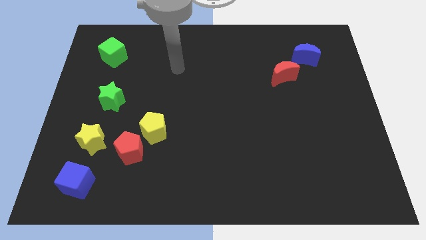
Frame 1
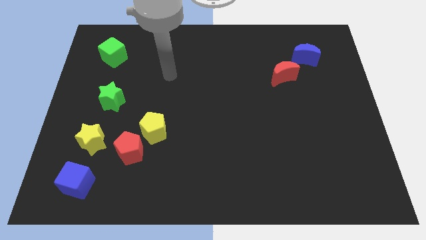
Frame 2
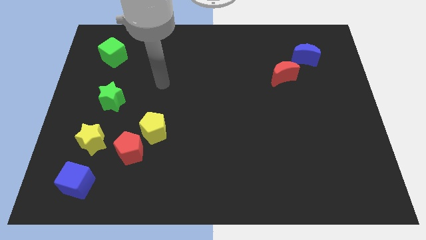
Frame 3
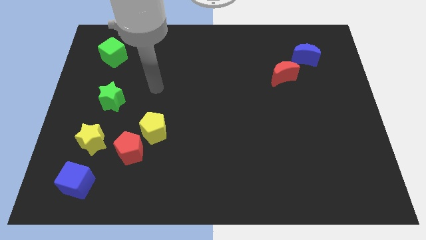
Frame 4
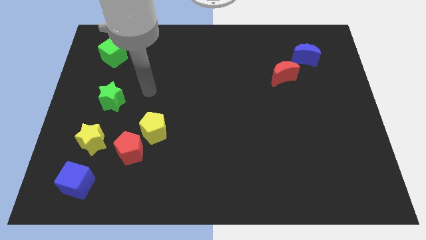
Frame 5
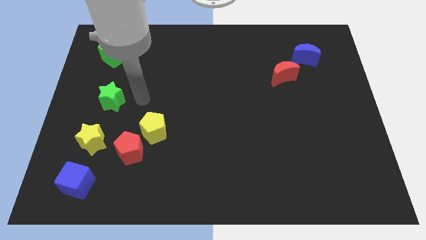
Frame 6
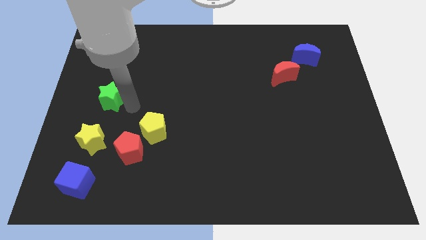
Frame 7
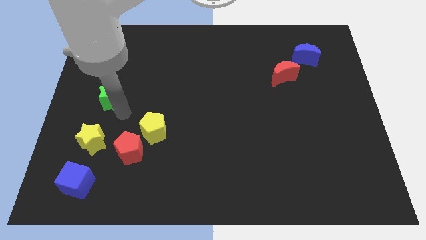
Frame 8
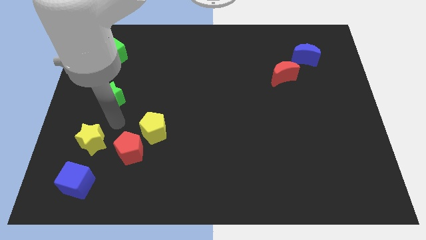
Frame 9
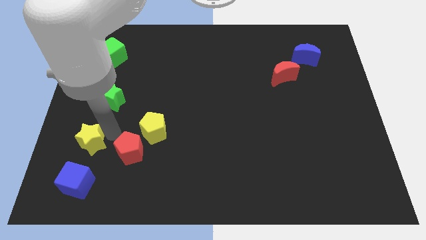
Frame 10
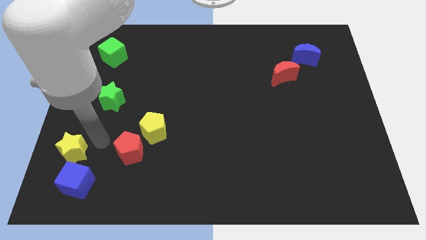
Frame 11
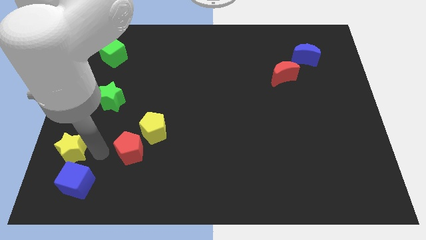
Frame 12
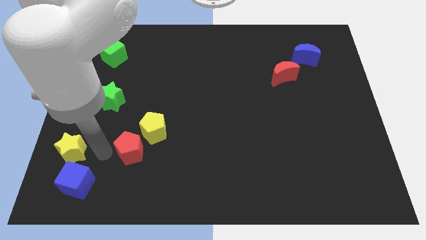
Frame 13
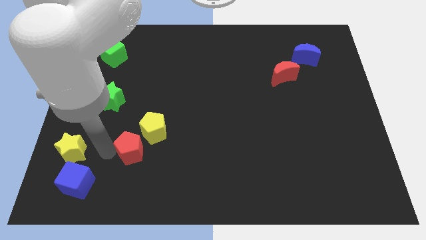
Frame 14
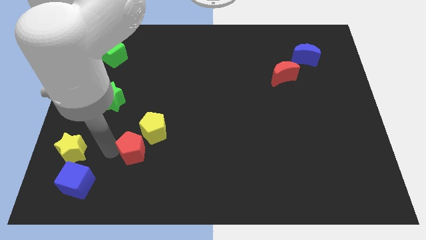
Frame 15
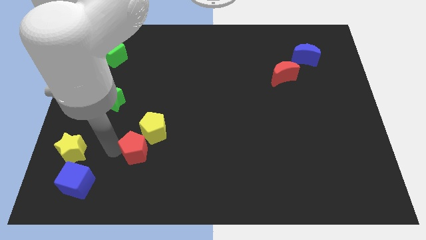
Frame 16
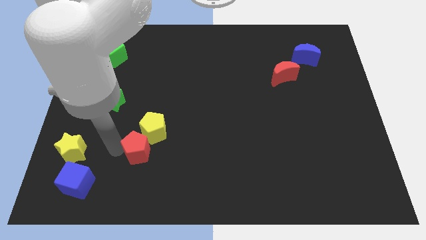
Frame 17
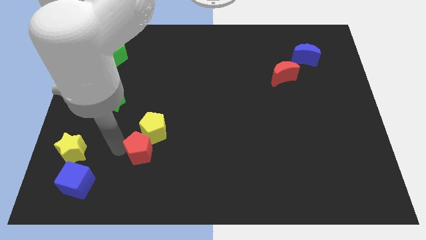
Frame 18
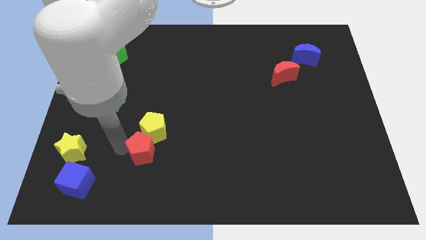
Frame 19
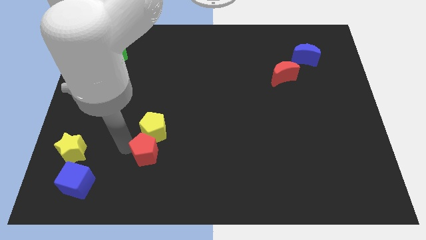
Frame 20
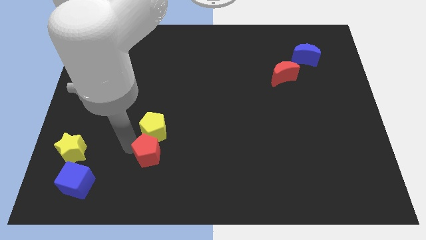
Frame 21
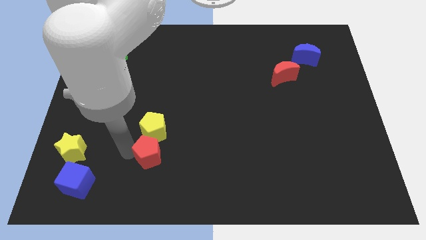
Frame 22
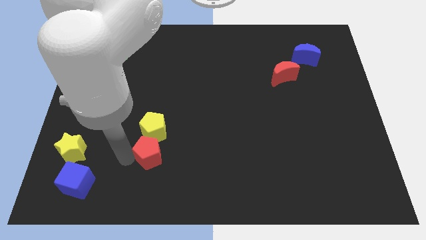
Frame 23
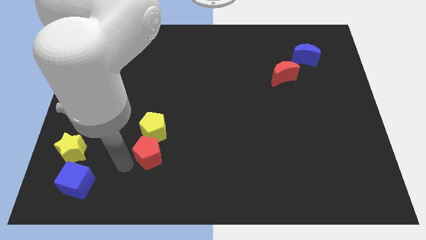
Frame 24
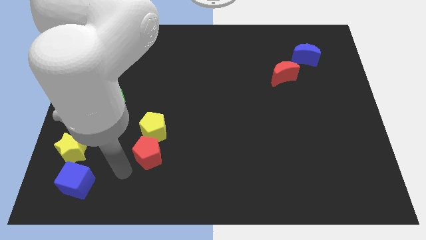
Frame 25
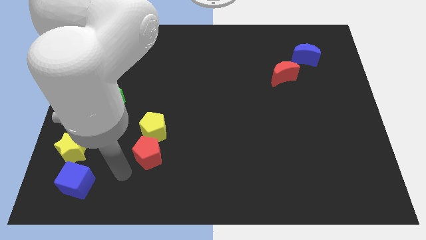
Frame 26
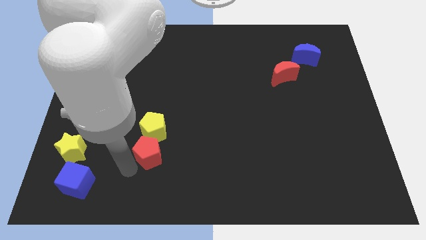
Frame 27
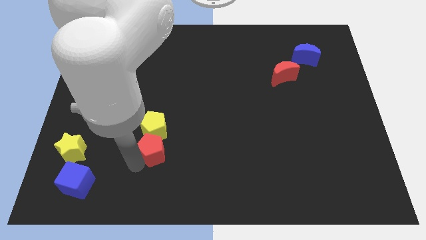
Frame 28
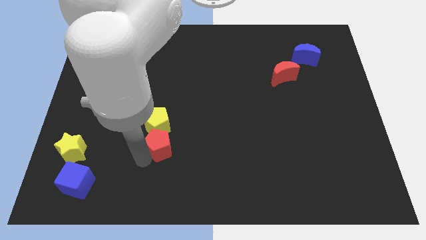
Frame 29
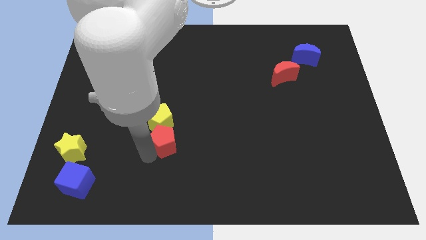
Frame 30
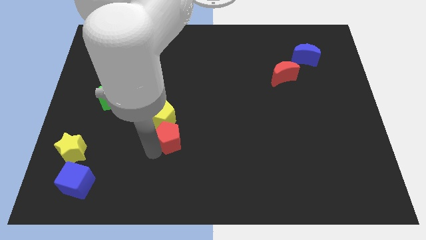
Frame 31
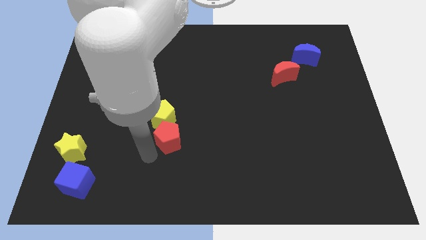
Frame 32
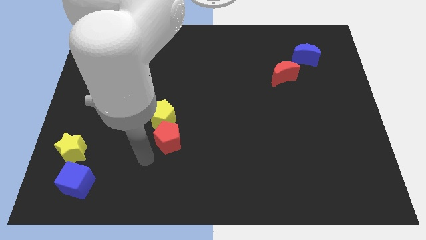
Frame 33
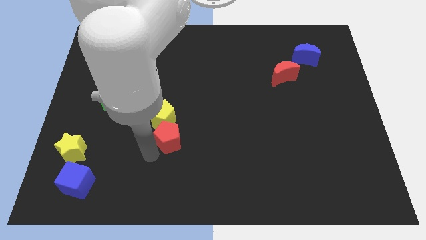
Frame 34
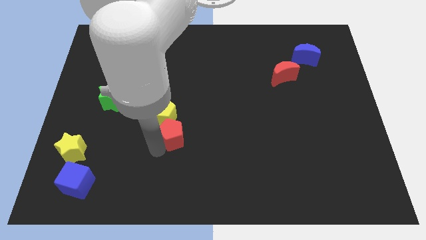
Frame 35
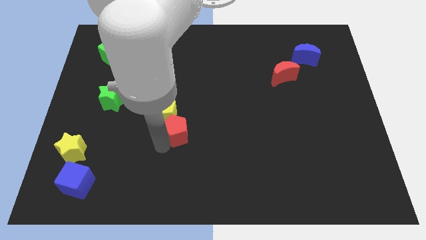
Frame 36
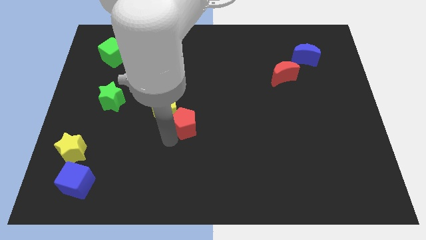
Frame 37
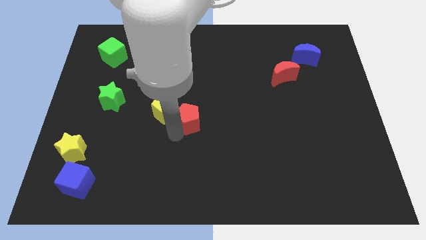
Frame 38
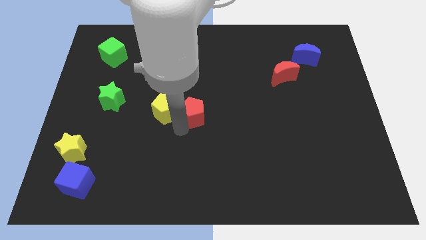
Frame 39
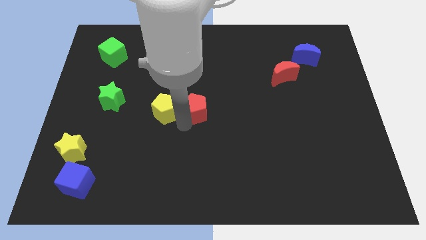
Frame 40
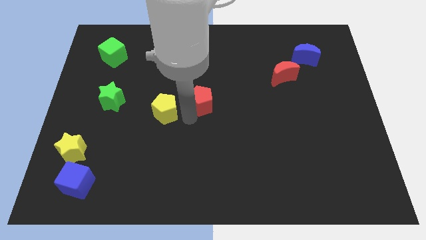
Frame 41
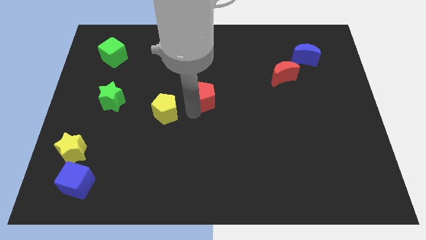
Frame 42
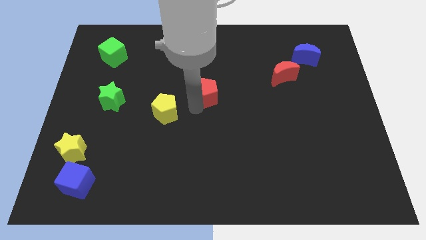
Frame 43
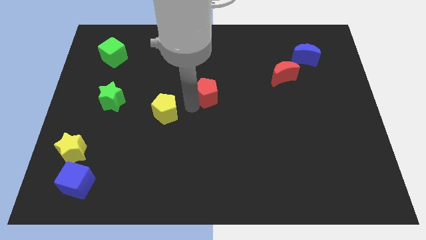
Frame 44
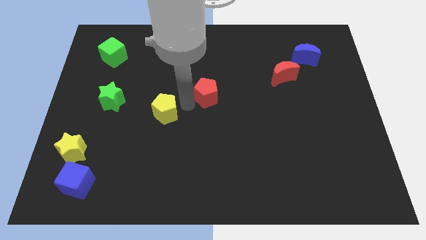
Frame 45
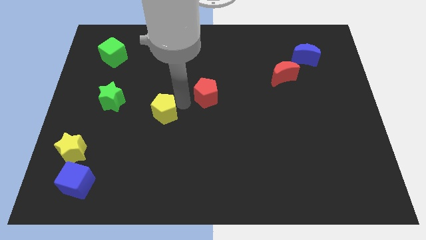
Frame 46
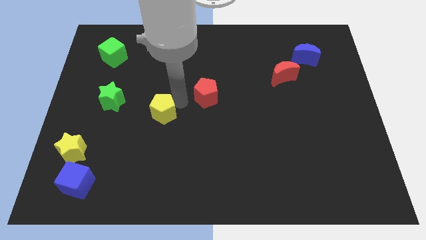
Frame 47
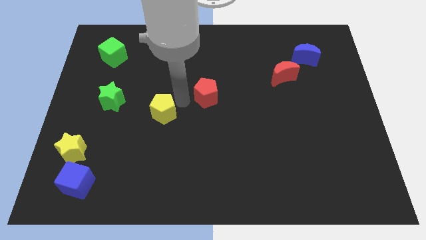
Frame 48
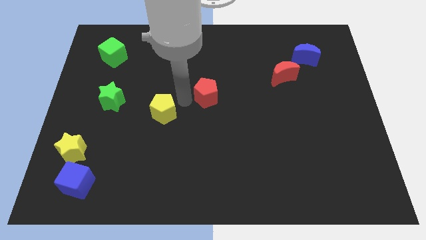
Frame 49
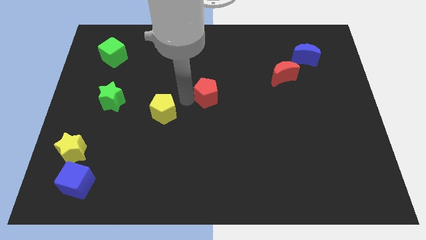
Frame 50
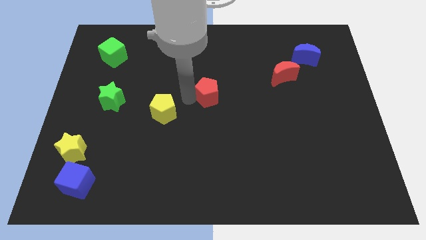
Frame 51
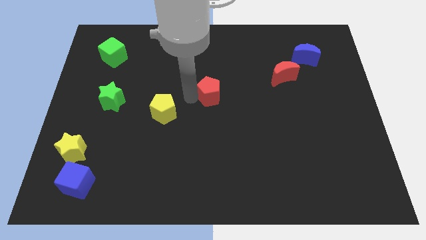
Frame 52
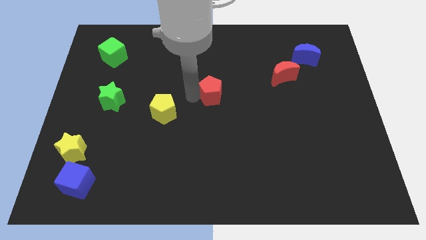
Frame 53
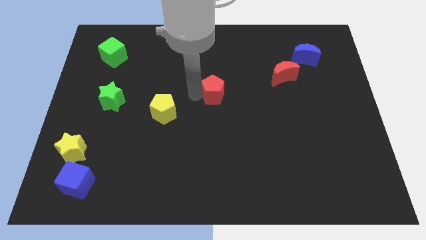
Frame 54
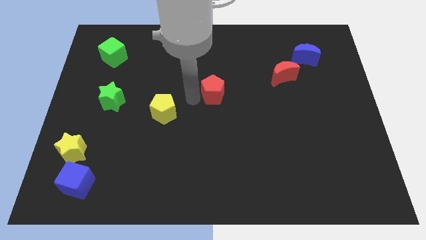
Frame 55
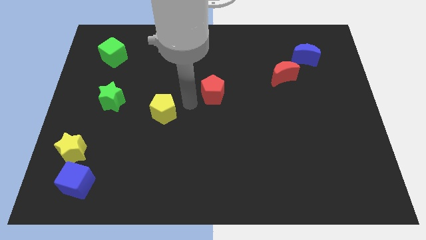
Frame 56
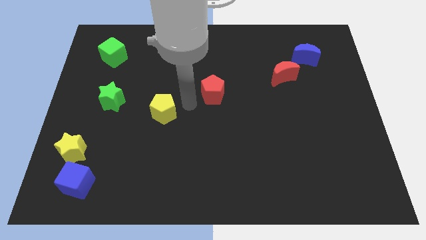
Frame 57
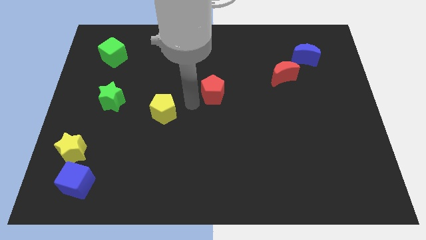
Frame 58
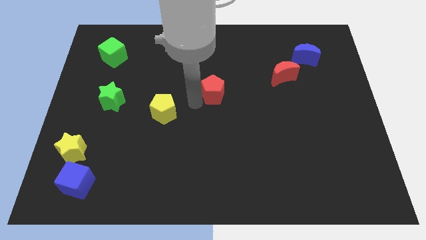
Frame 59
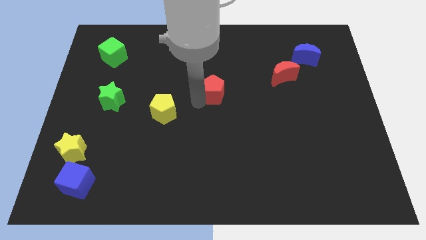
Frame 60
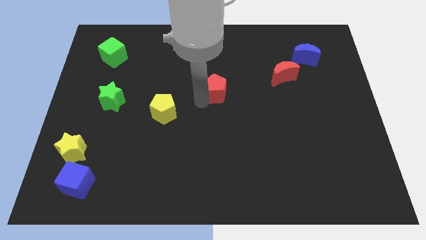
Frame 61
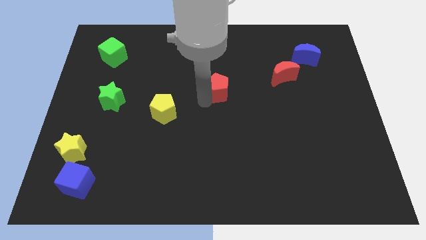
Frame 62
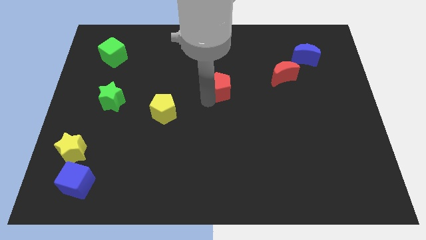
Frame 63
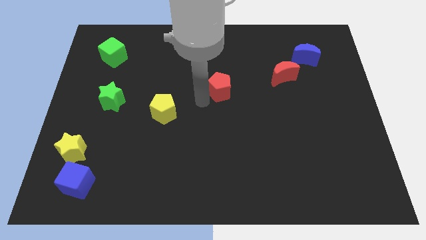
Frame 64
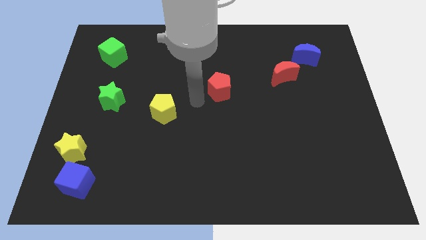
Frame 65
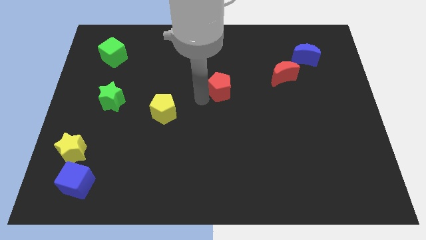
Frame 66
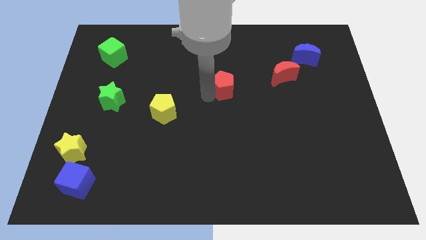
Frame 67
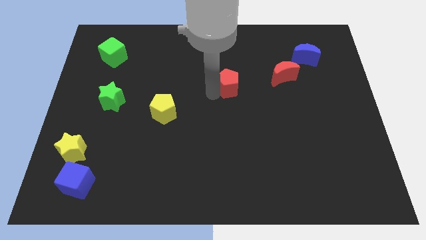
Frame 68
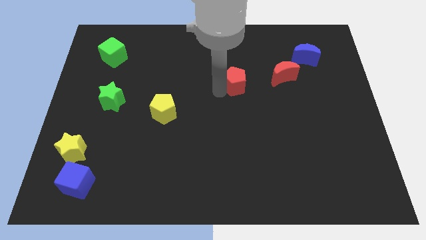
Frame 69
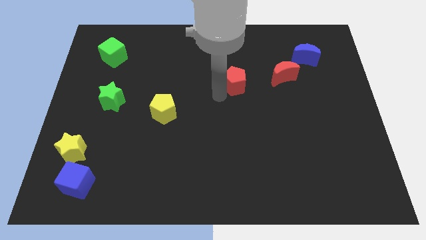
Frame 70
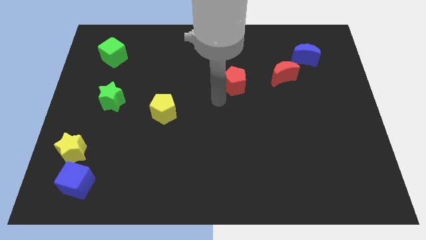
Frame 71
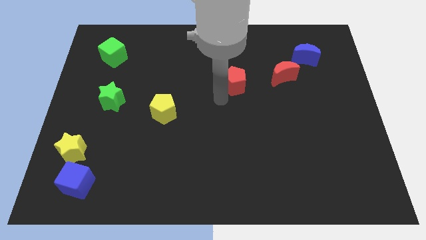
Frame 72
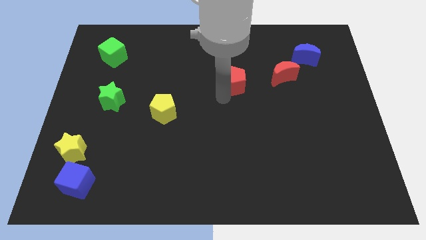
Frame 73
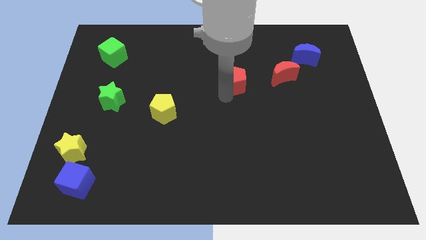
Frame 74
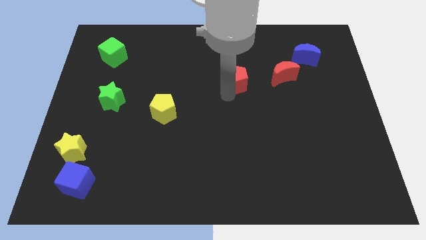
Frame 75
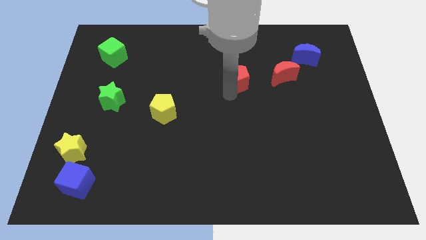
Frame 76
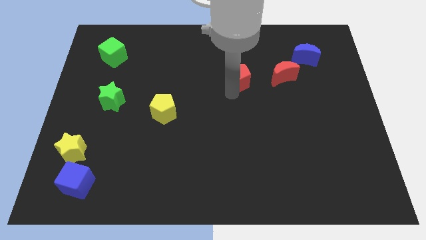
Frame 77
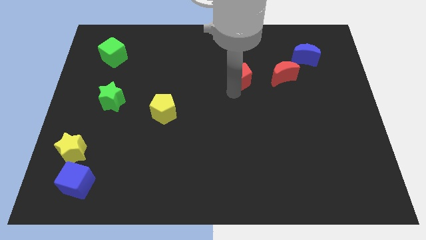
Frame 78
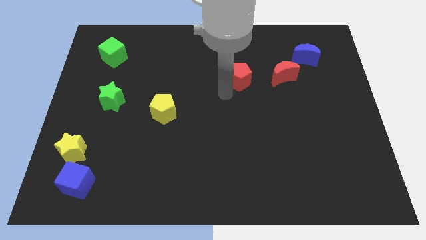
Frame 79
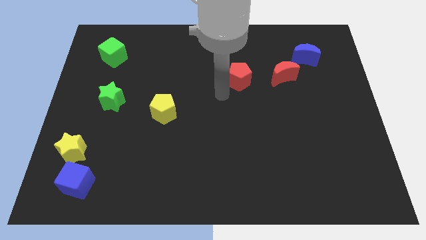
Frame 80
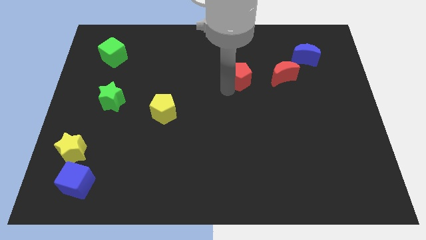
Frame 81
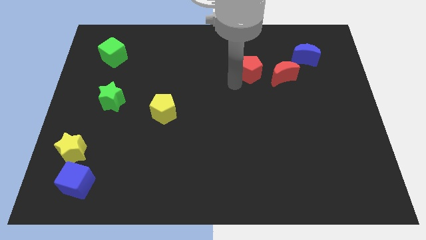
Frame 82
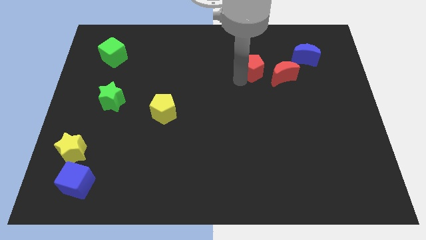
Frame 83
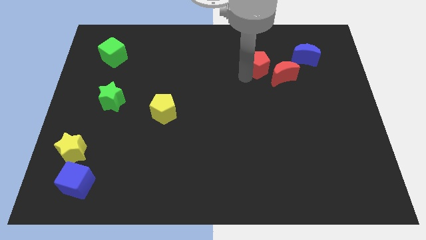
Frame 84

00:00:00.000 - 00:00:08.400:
put the red pentagon to the left of the blue moon
